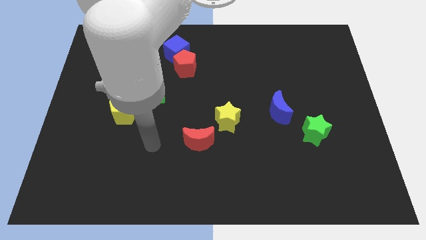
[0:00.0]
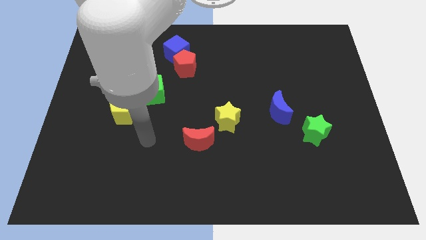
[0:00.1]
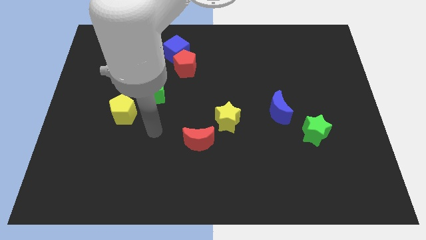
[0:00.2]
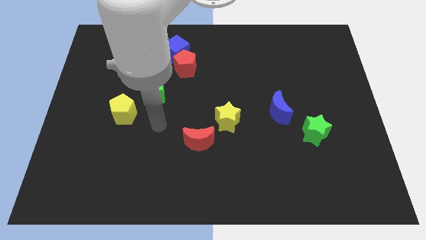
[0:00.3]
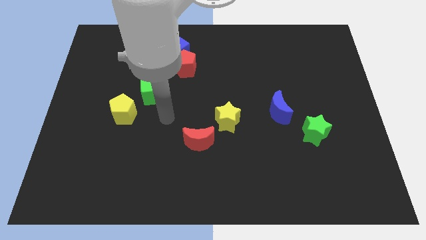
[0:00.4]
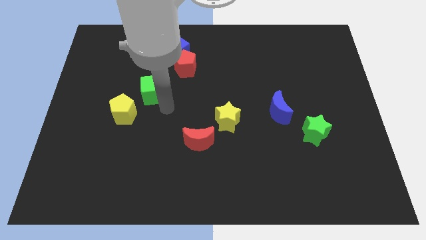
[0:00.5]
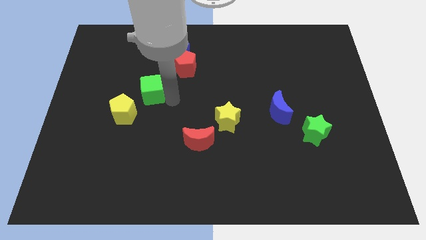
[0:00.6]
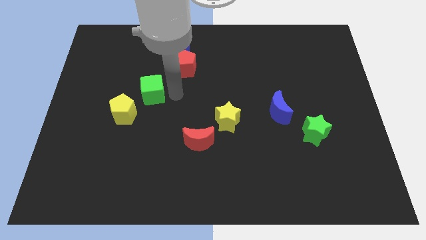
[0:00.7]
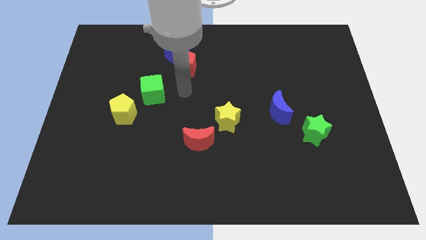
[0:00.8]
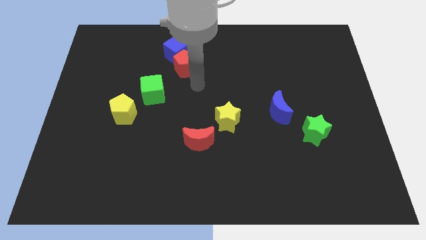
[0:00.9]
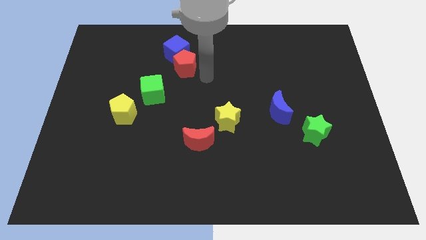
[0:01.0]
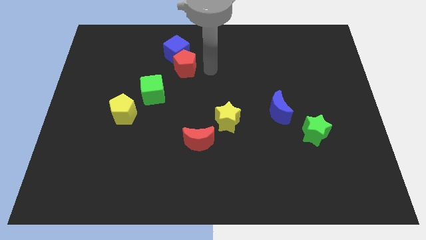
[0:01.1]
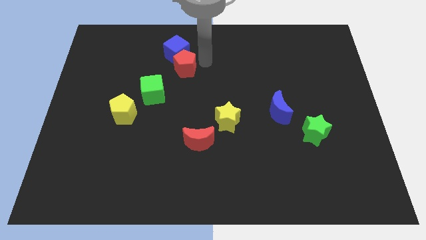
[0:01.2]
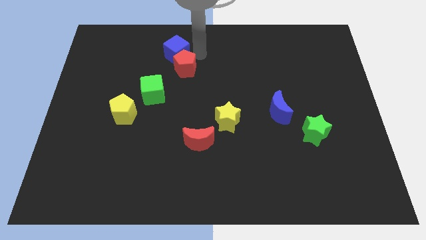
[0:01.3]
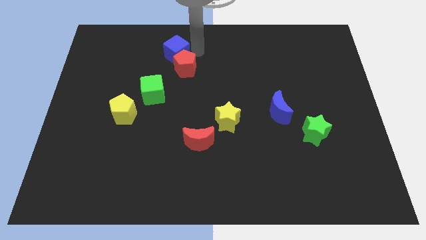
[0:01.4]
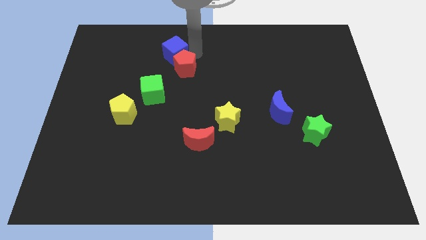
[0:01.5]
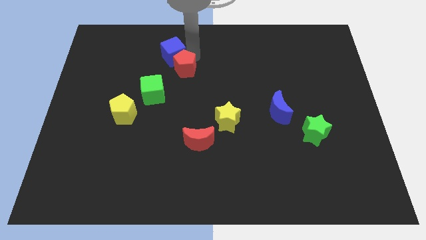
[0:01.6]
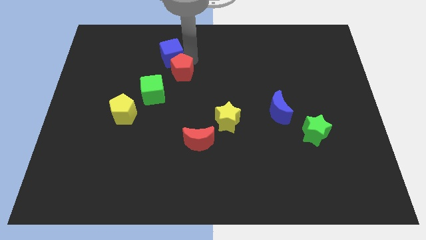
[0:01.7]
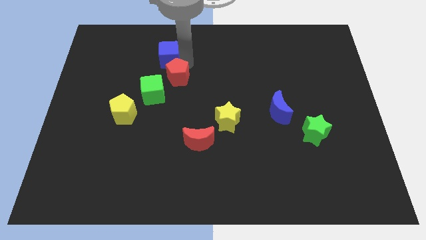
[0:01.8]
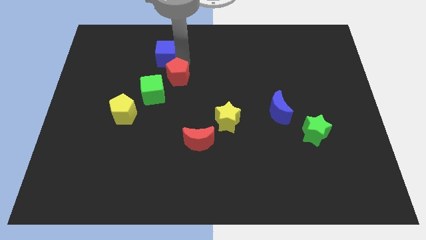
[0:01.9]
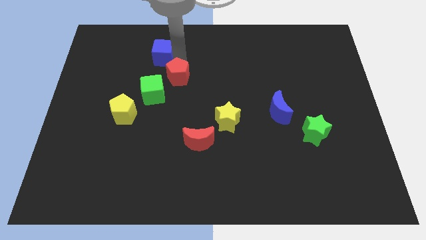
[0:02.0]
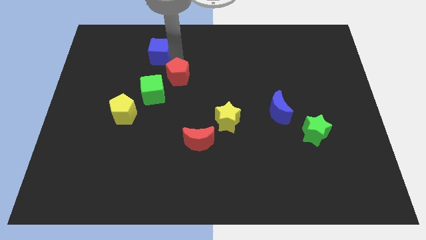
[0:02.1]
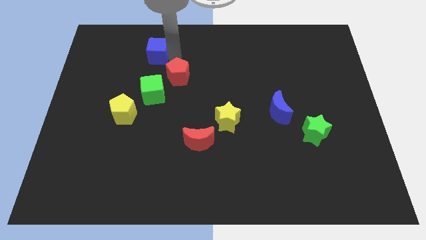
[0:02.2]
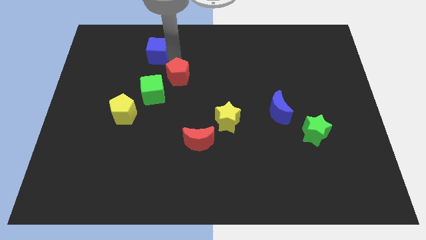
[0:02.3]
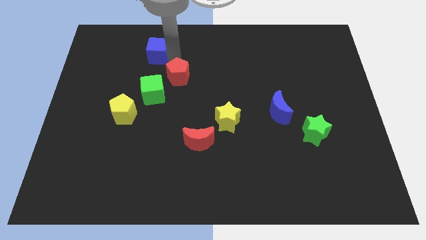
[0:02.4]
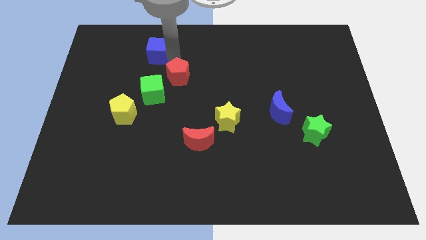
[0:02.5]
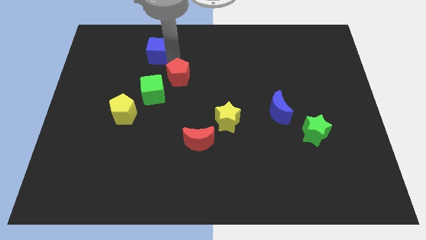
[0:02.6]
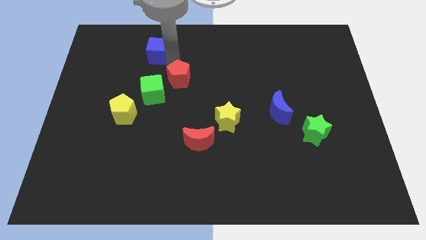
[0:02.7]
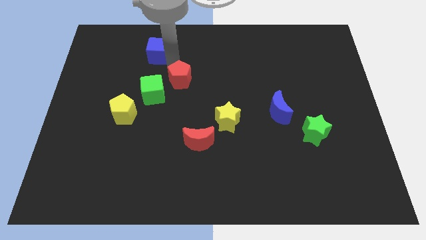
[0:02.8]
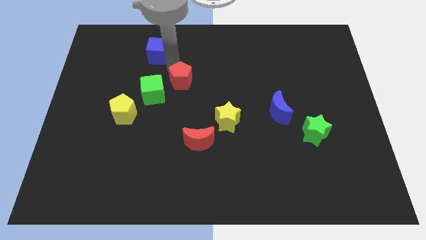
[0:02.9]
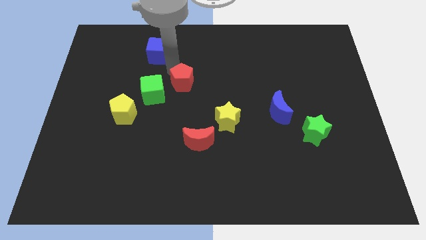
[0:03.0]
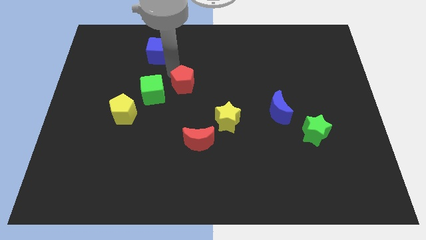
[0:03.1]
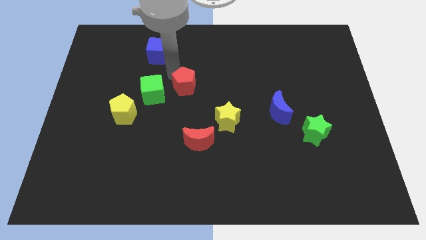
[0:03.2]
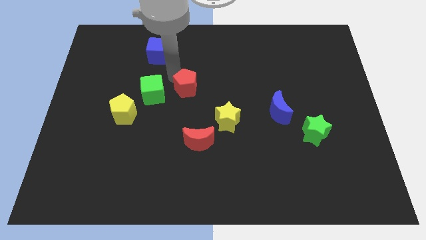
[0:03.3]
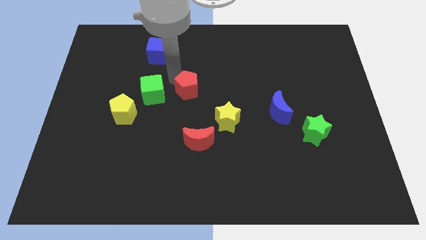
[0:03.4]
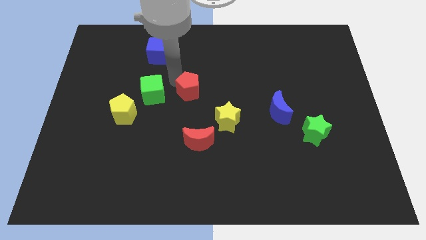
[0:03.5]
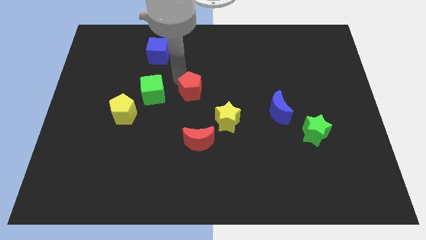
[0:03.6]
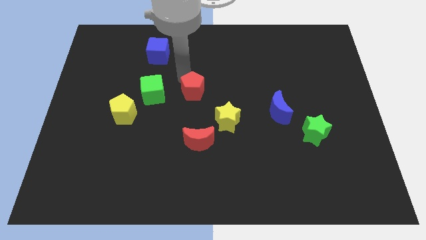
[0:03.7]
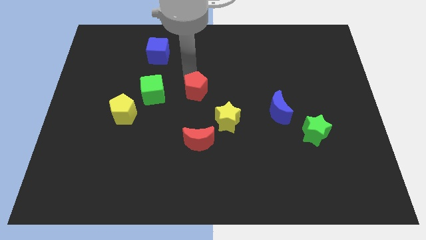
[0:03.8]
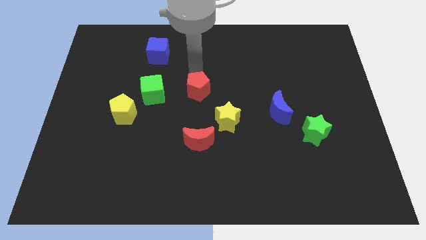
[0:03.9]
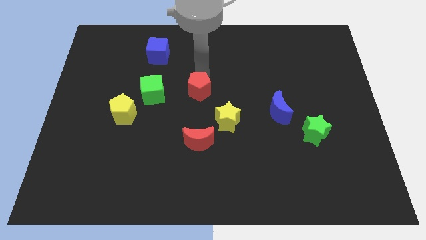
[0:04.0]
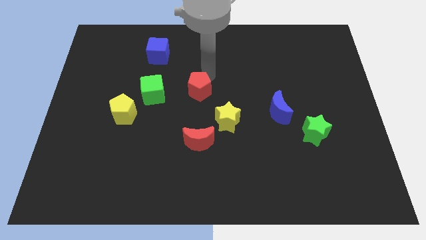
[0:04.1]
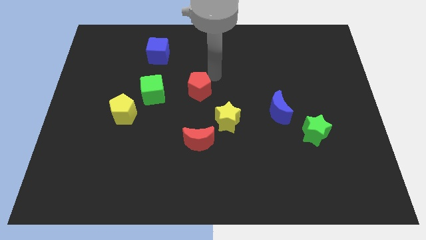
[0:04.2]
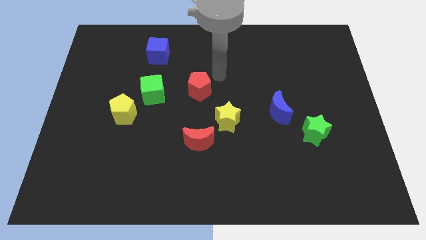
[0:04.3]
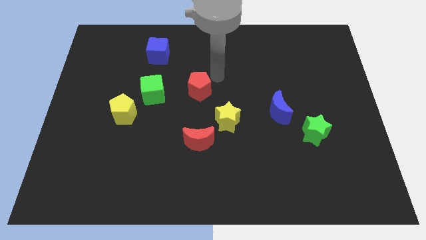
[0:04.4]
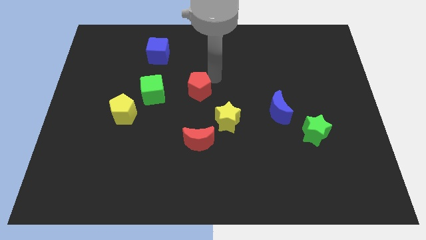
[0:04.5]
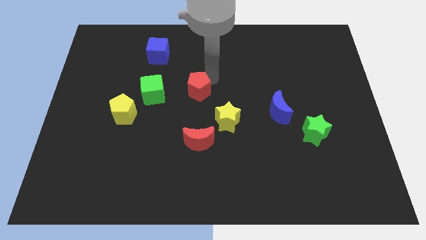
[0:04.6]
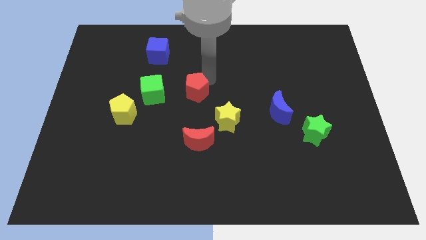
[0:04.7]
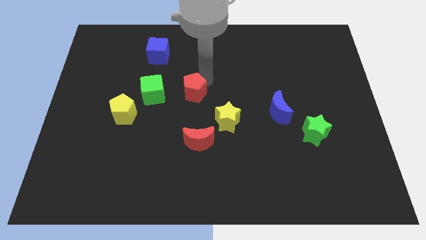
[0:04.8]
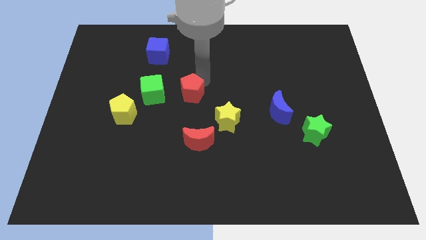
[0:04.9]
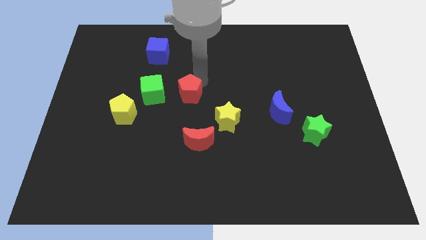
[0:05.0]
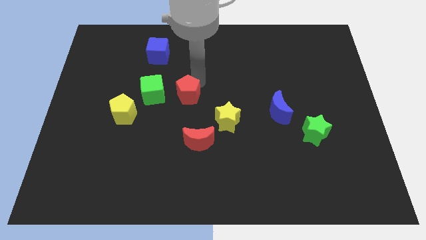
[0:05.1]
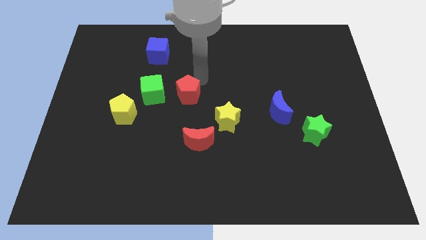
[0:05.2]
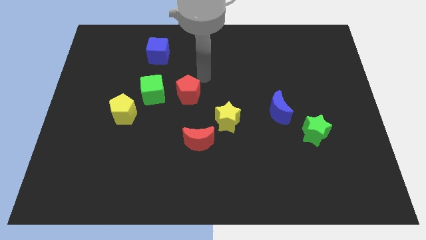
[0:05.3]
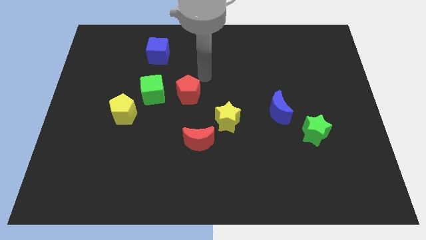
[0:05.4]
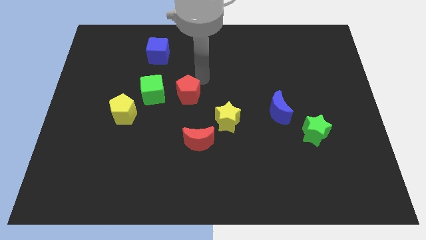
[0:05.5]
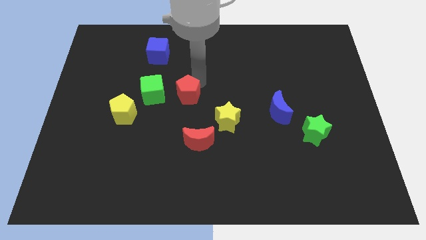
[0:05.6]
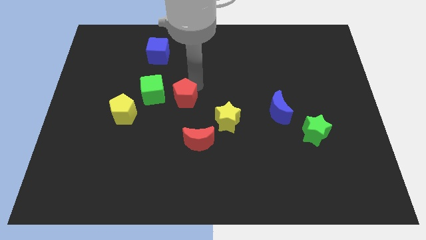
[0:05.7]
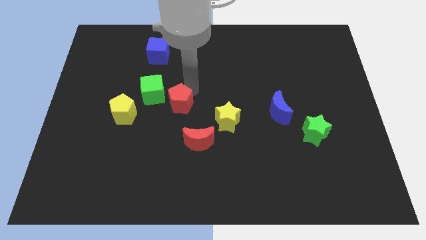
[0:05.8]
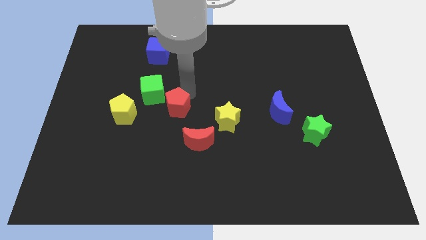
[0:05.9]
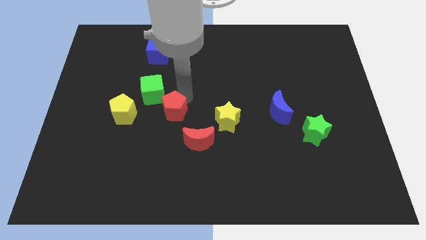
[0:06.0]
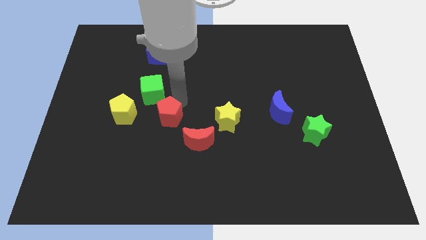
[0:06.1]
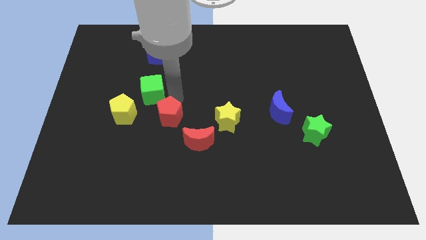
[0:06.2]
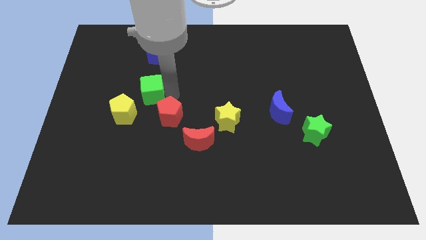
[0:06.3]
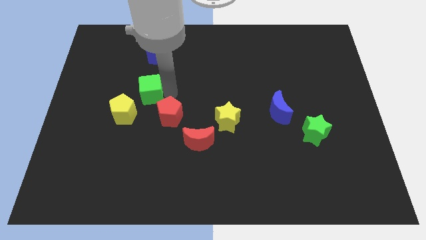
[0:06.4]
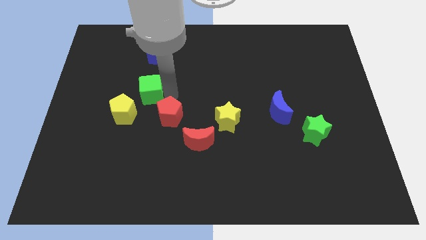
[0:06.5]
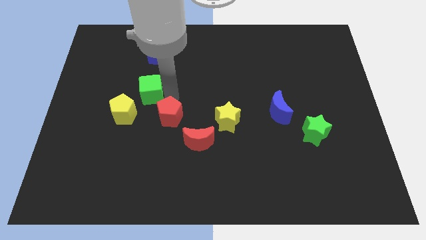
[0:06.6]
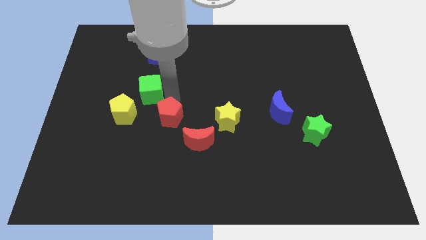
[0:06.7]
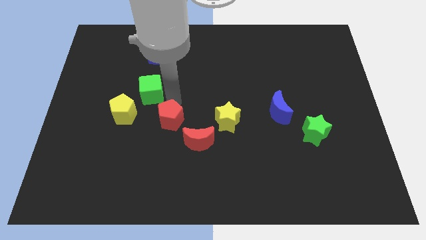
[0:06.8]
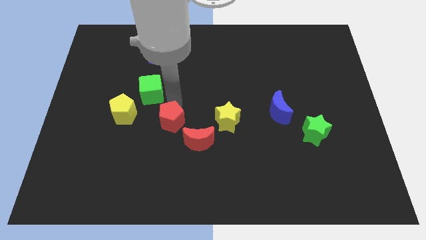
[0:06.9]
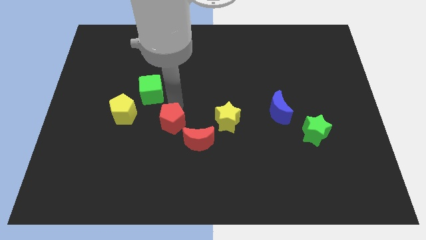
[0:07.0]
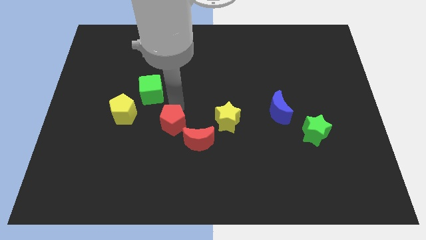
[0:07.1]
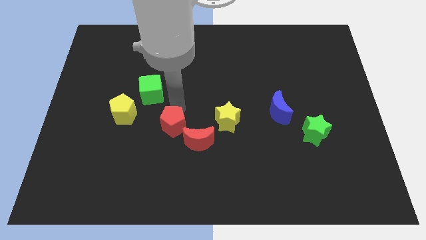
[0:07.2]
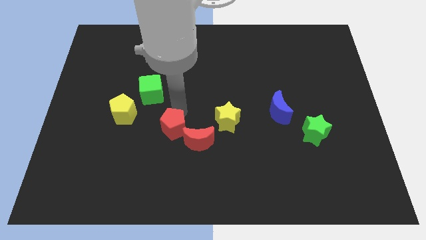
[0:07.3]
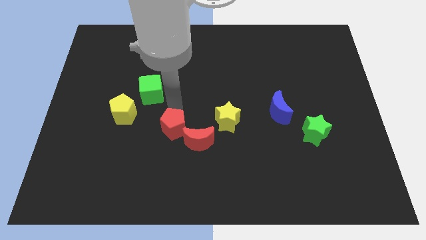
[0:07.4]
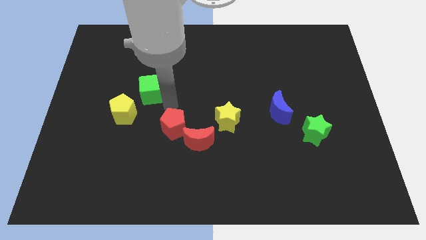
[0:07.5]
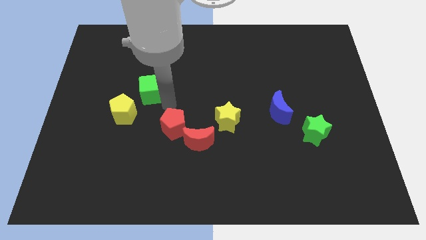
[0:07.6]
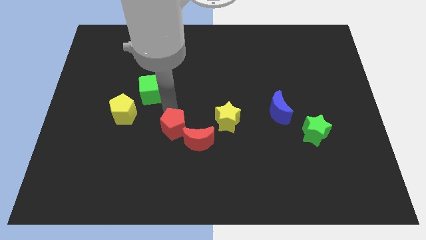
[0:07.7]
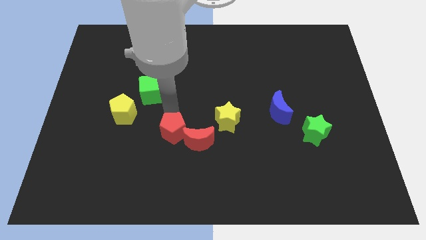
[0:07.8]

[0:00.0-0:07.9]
push the red pentagon downwards

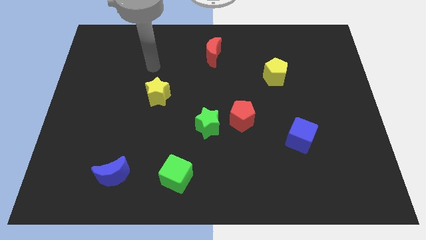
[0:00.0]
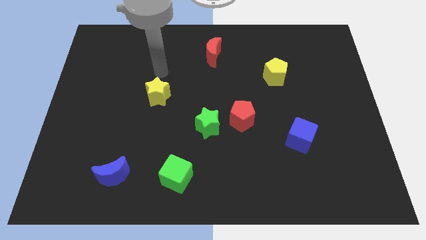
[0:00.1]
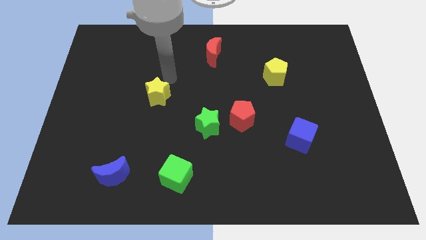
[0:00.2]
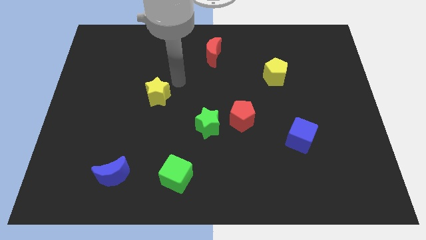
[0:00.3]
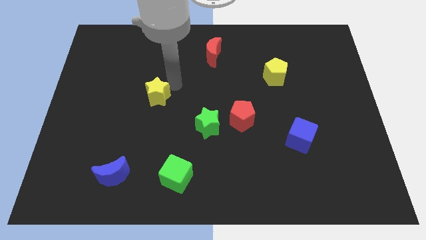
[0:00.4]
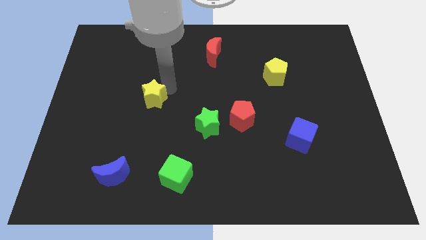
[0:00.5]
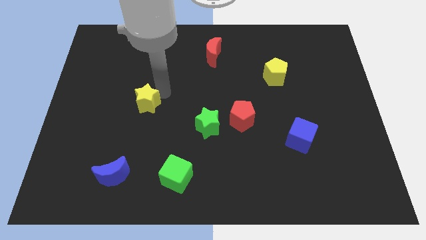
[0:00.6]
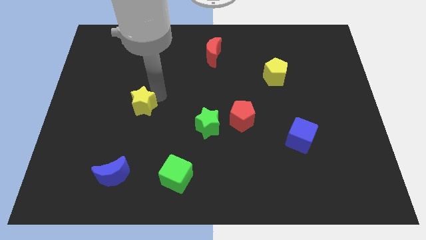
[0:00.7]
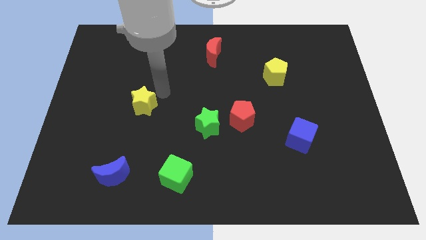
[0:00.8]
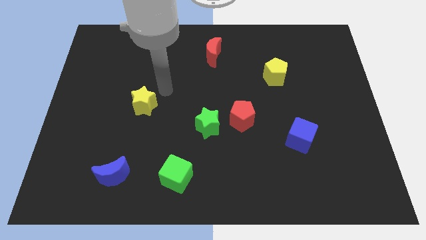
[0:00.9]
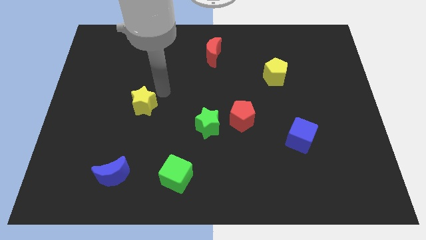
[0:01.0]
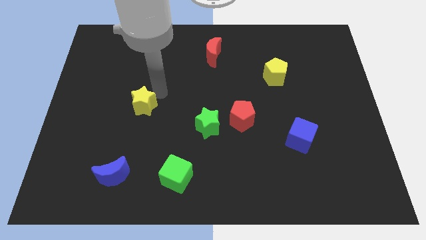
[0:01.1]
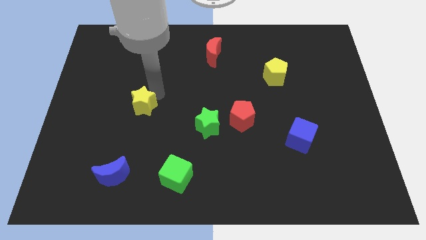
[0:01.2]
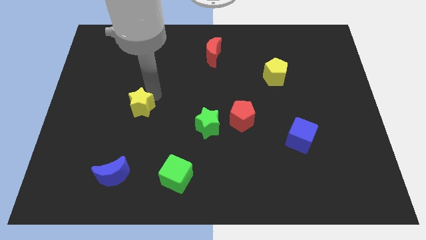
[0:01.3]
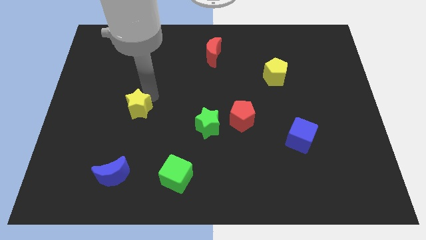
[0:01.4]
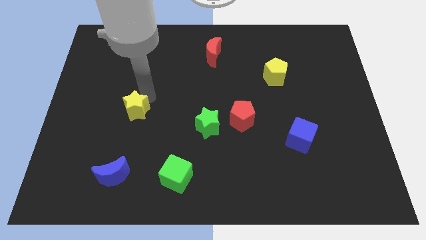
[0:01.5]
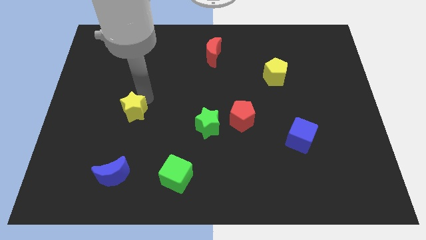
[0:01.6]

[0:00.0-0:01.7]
push the yellow star down and left diagonally a little bit
